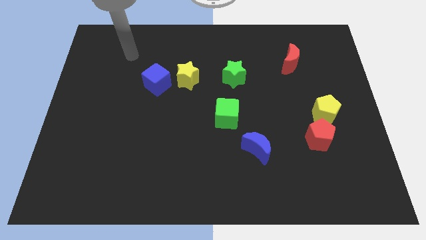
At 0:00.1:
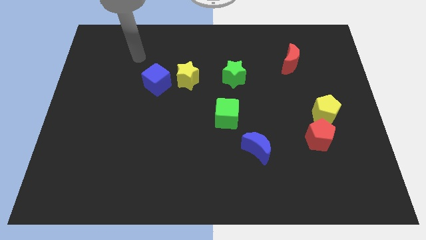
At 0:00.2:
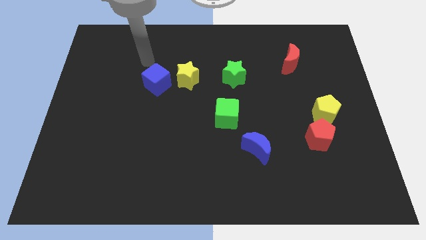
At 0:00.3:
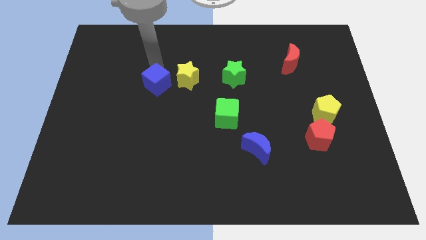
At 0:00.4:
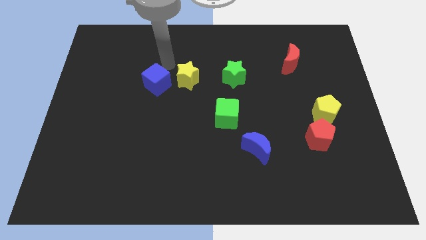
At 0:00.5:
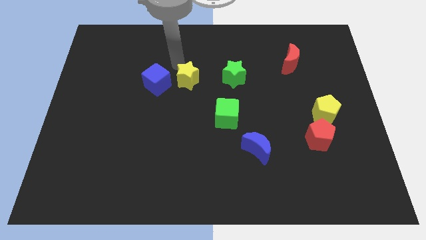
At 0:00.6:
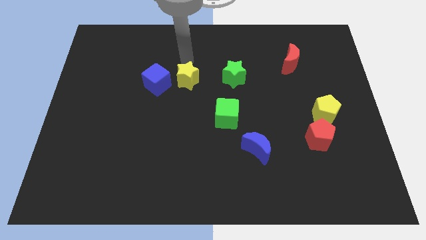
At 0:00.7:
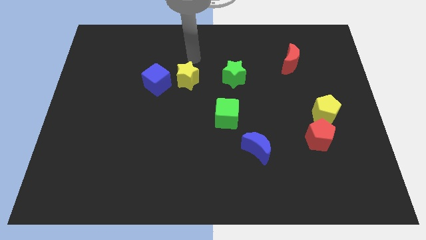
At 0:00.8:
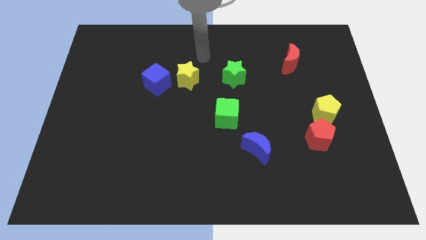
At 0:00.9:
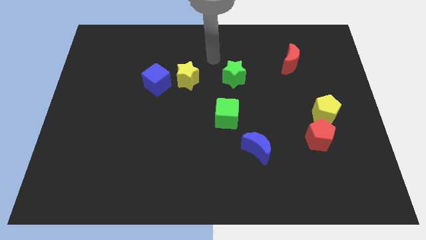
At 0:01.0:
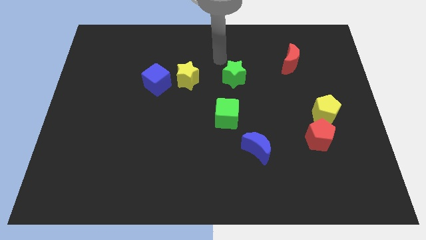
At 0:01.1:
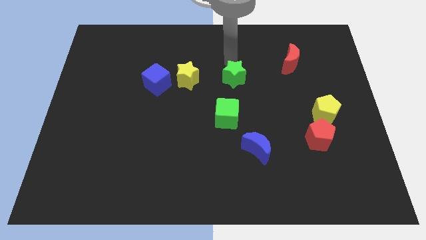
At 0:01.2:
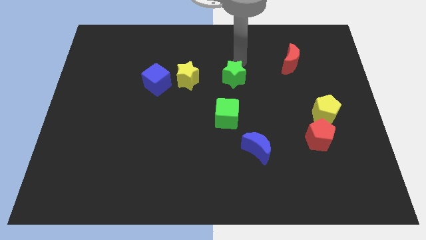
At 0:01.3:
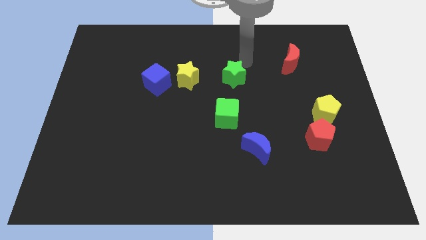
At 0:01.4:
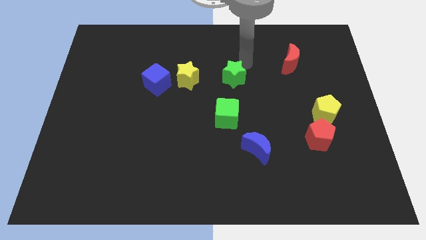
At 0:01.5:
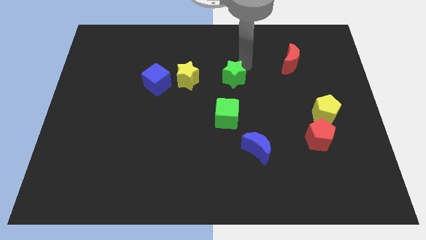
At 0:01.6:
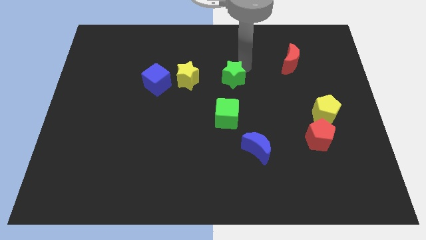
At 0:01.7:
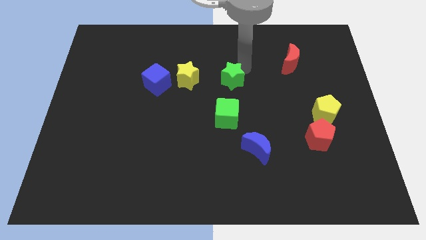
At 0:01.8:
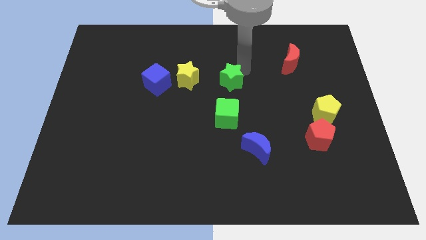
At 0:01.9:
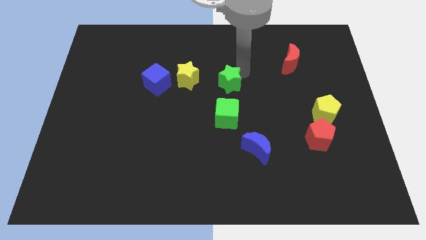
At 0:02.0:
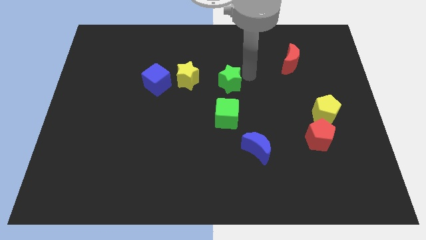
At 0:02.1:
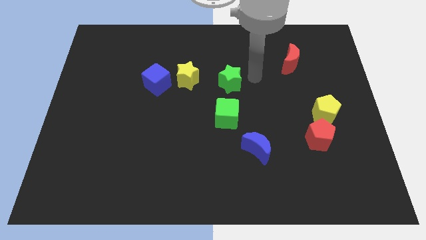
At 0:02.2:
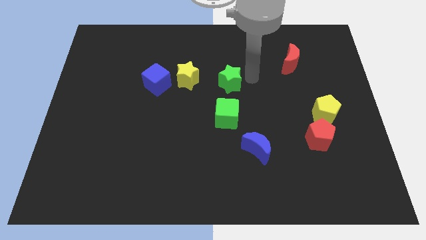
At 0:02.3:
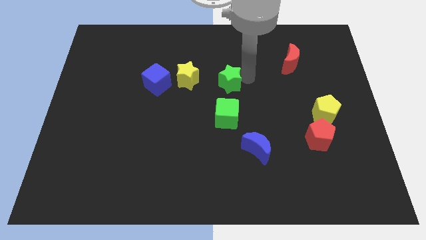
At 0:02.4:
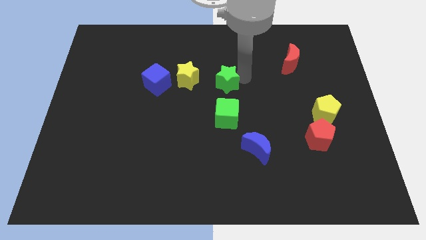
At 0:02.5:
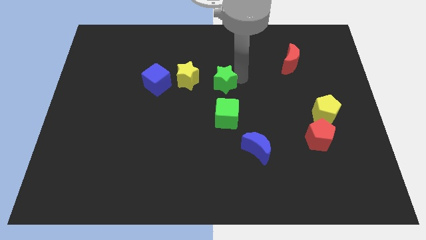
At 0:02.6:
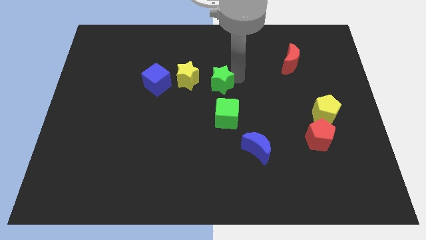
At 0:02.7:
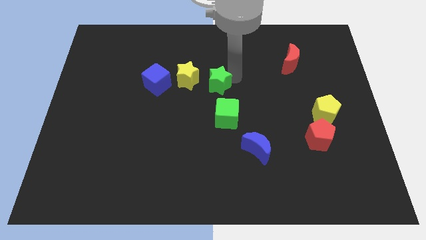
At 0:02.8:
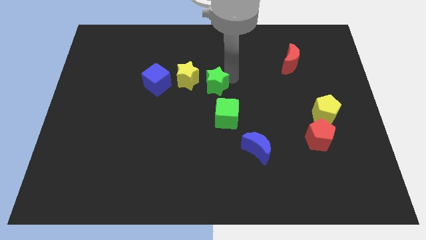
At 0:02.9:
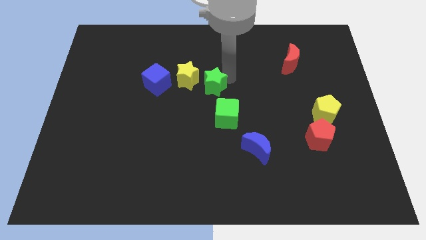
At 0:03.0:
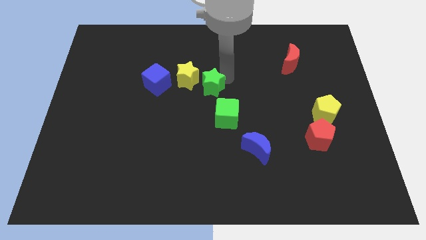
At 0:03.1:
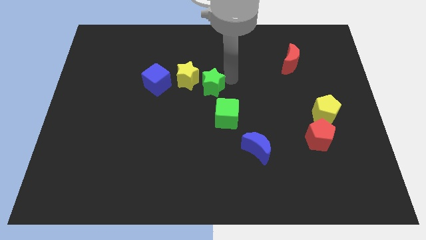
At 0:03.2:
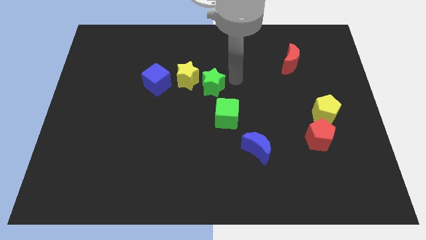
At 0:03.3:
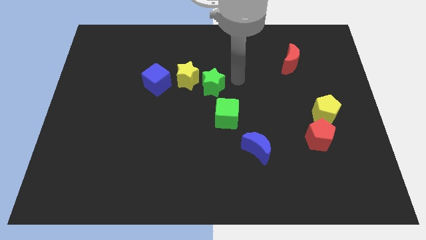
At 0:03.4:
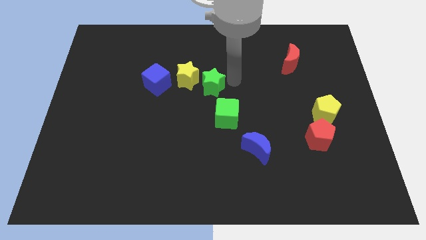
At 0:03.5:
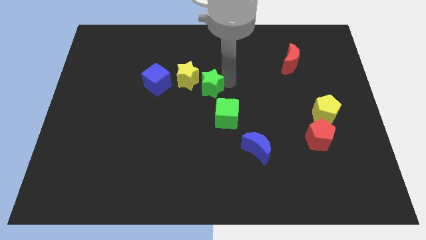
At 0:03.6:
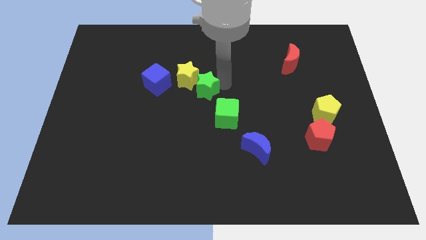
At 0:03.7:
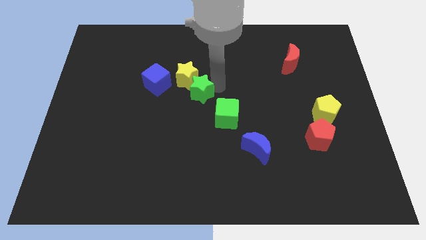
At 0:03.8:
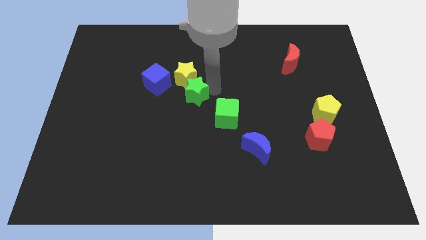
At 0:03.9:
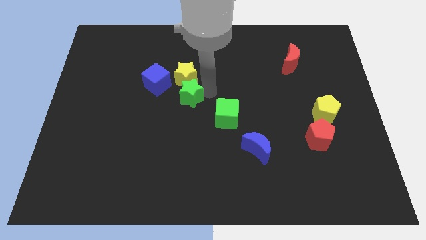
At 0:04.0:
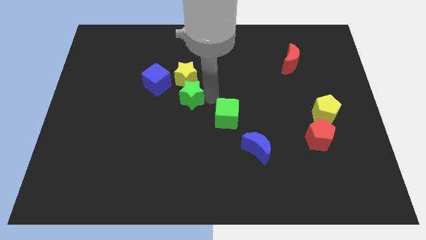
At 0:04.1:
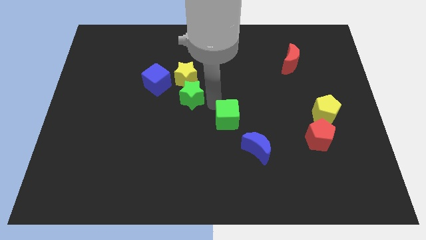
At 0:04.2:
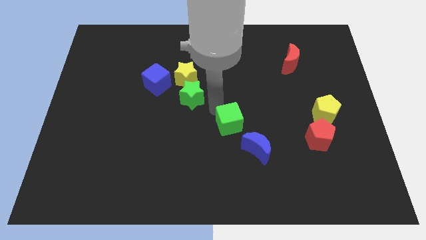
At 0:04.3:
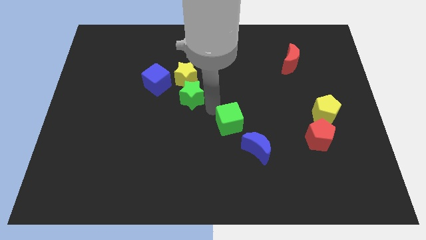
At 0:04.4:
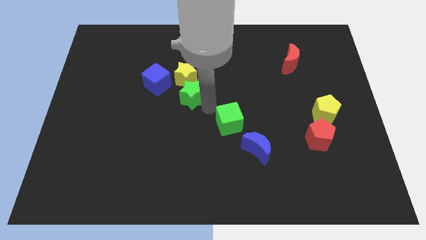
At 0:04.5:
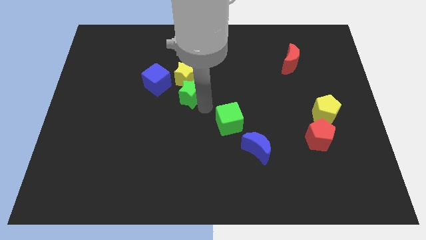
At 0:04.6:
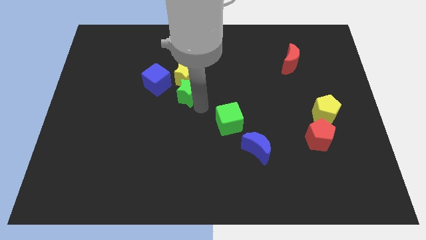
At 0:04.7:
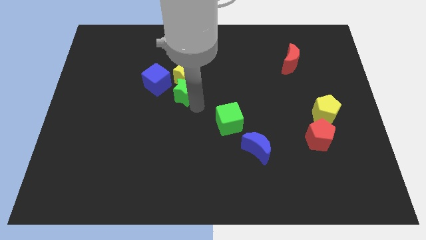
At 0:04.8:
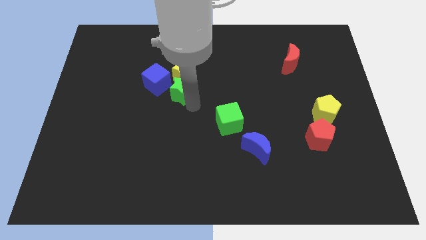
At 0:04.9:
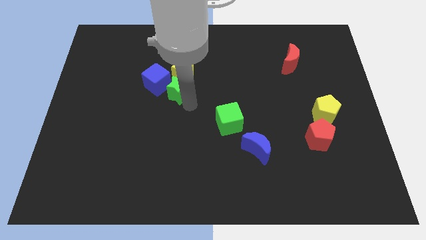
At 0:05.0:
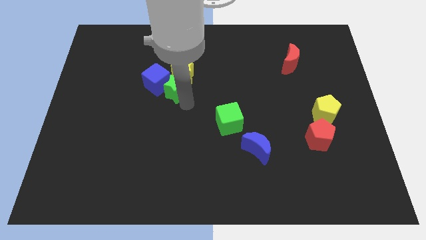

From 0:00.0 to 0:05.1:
put the green star to the blue cube

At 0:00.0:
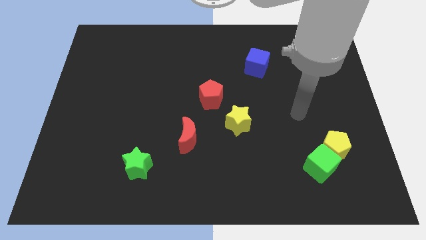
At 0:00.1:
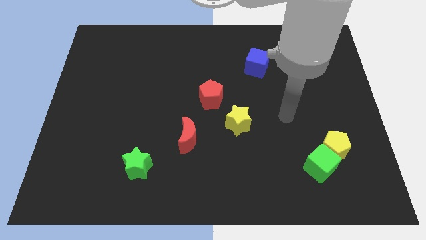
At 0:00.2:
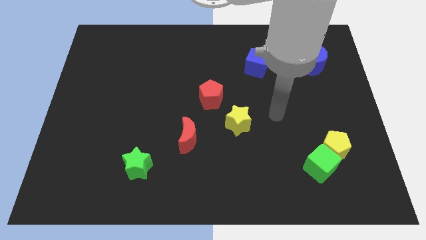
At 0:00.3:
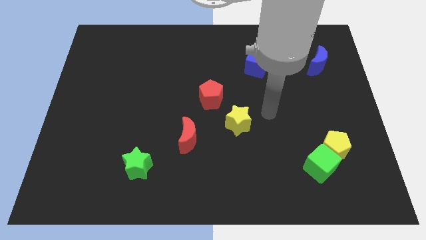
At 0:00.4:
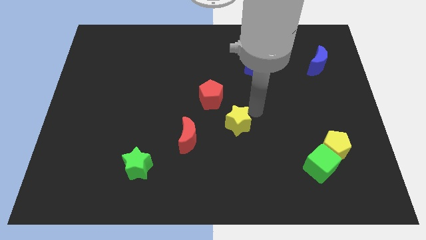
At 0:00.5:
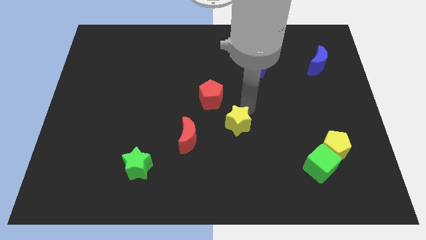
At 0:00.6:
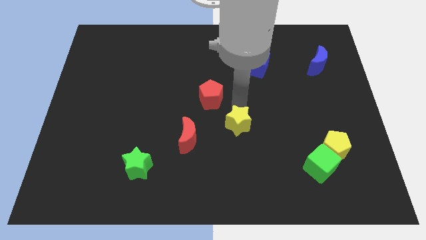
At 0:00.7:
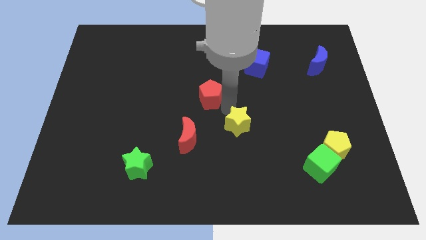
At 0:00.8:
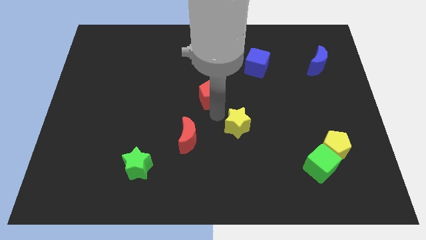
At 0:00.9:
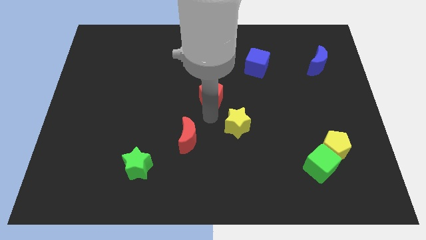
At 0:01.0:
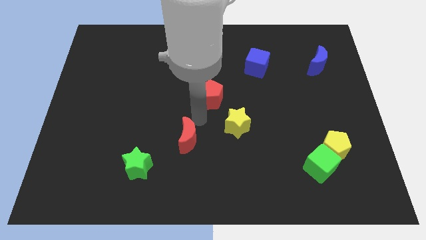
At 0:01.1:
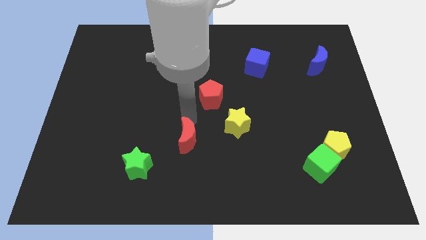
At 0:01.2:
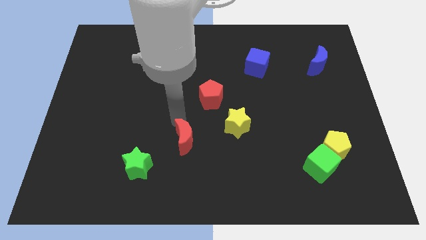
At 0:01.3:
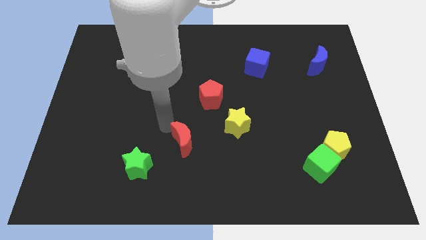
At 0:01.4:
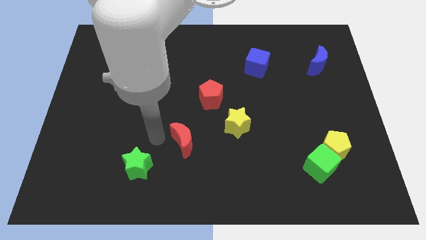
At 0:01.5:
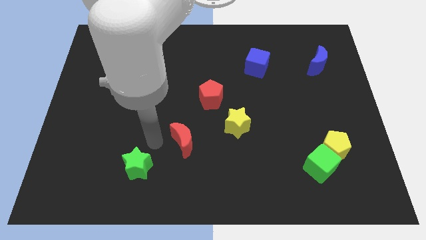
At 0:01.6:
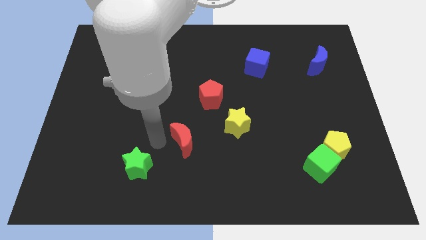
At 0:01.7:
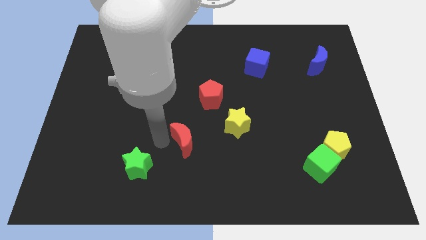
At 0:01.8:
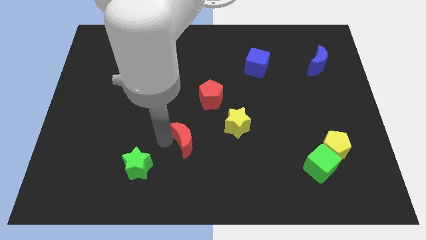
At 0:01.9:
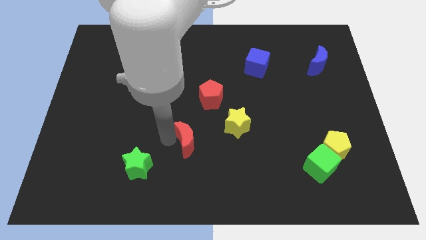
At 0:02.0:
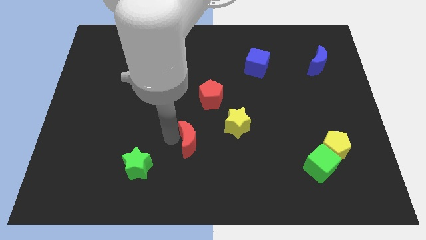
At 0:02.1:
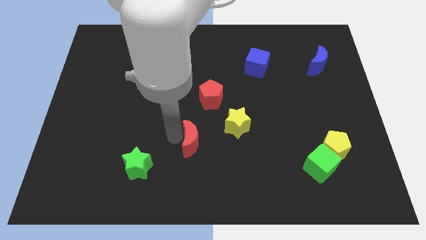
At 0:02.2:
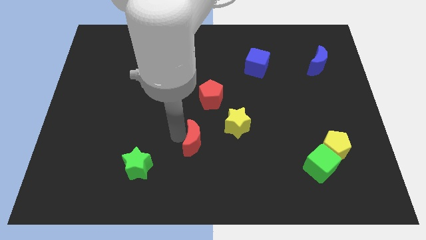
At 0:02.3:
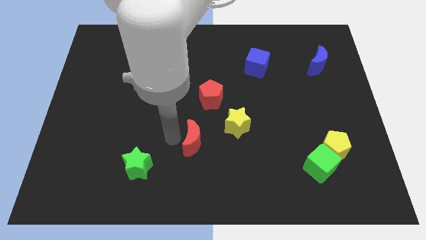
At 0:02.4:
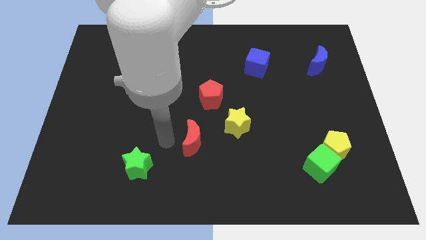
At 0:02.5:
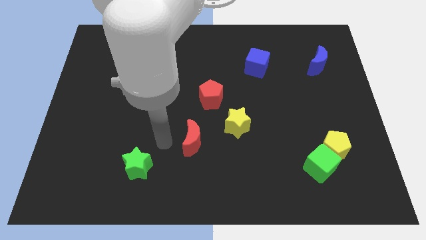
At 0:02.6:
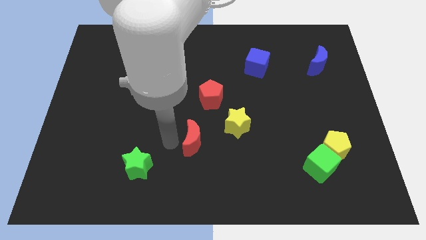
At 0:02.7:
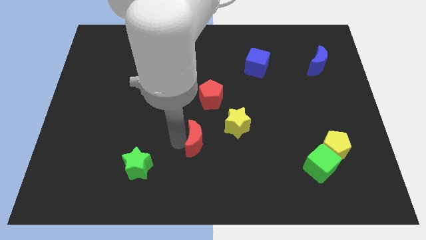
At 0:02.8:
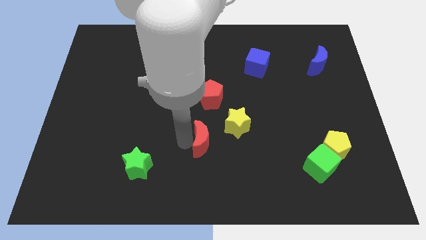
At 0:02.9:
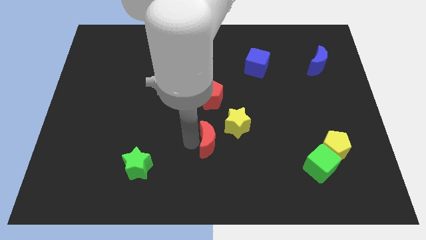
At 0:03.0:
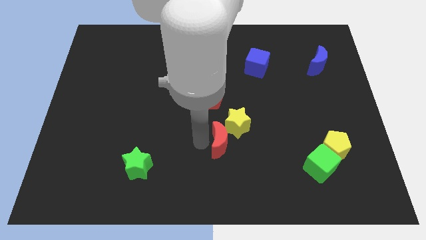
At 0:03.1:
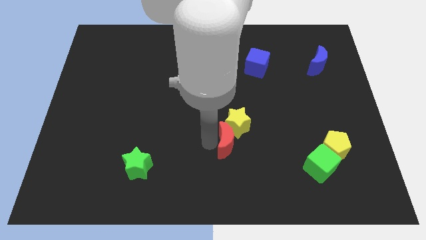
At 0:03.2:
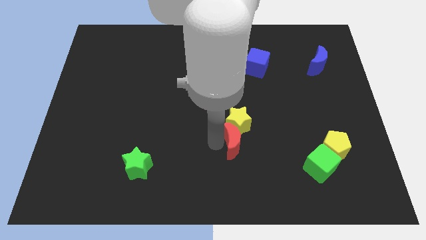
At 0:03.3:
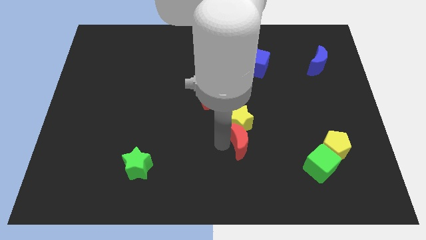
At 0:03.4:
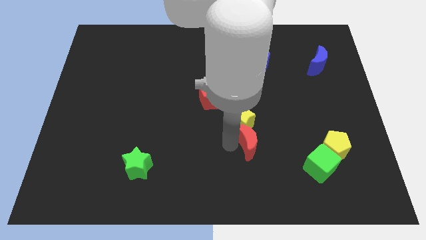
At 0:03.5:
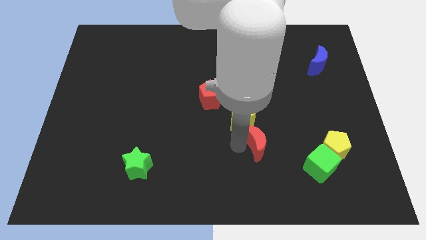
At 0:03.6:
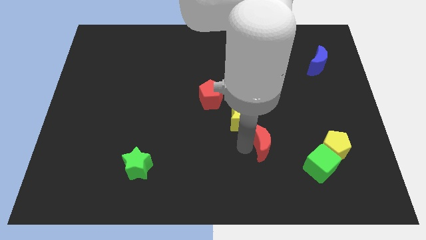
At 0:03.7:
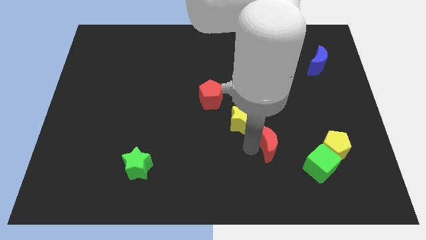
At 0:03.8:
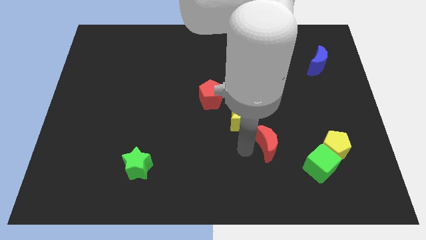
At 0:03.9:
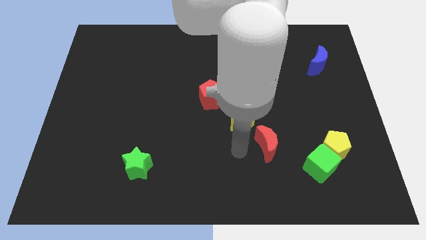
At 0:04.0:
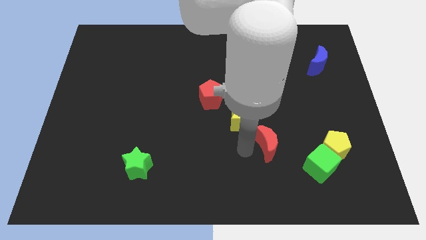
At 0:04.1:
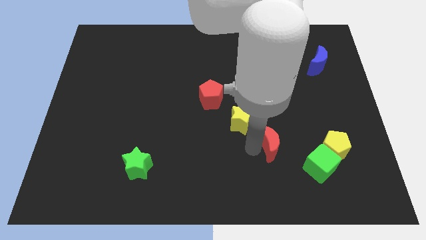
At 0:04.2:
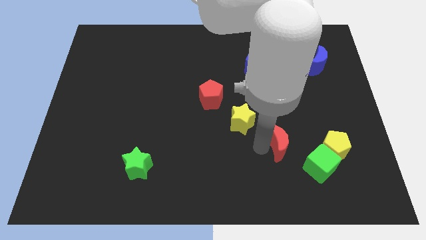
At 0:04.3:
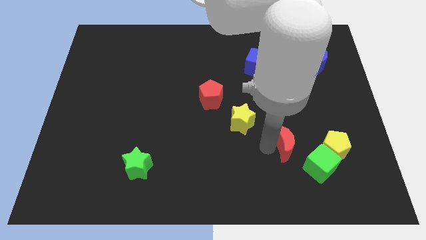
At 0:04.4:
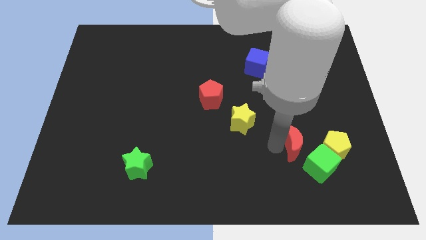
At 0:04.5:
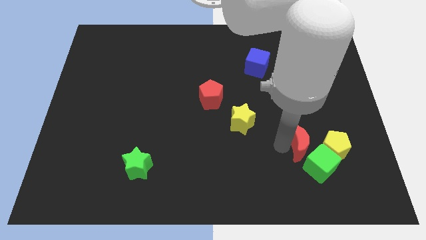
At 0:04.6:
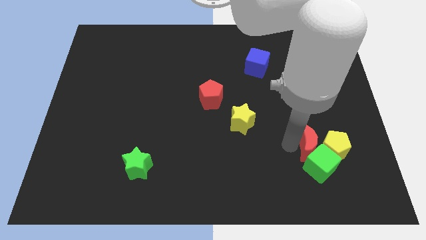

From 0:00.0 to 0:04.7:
slide the red moon towards the yellow pentagon
